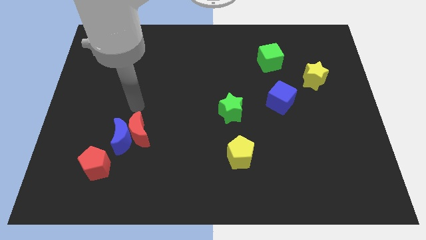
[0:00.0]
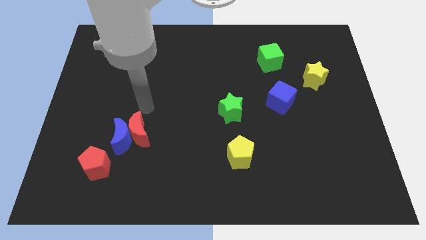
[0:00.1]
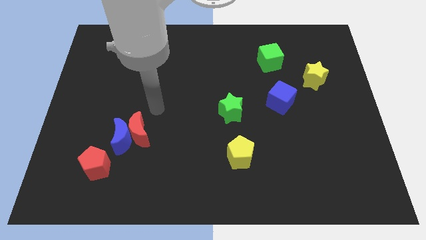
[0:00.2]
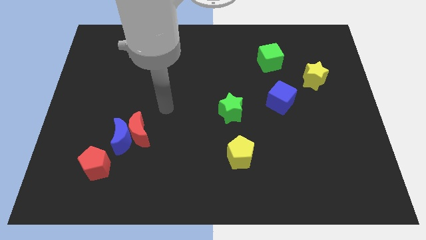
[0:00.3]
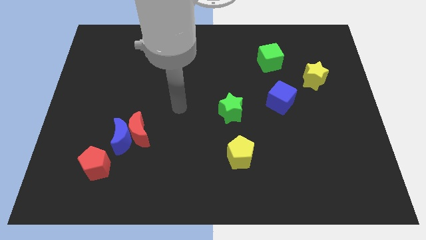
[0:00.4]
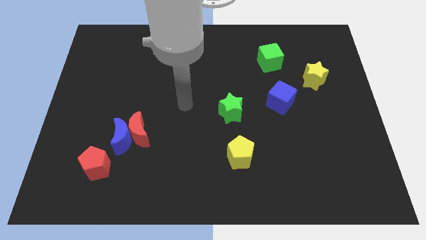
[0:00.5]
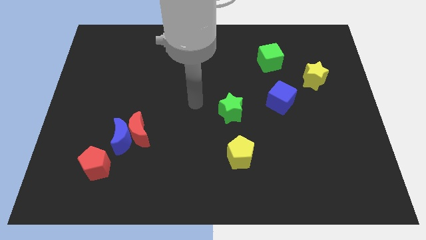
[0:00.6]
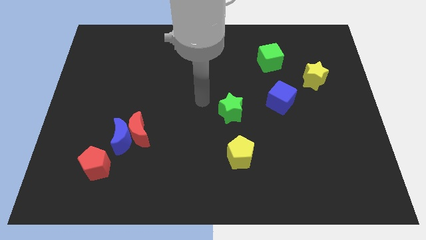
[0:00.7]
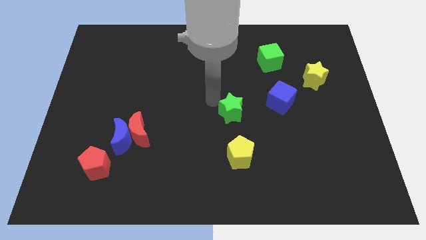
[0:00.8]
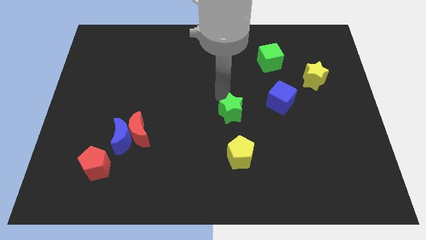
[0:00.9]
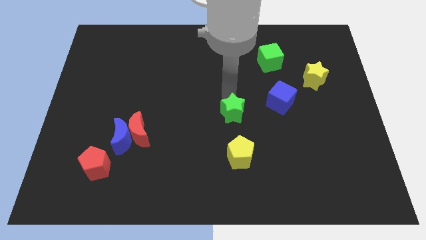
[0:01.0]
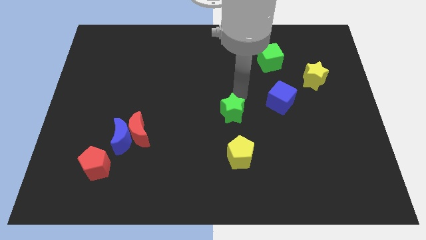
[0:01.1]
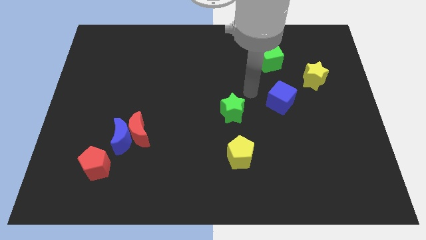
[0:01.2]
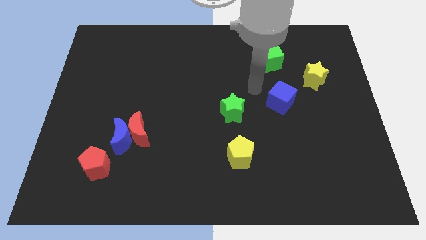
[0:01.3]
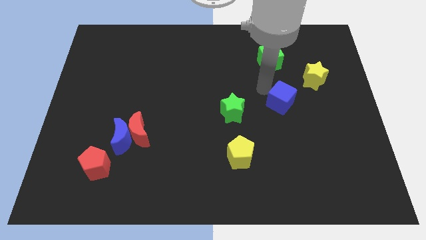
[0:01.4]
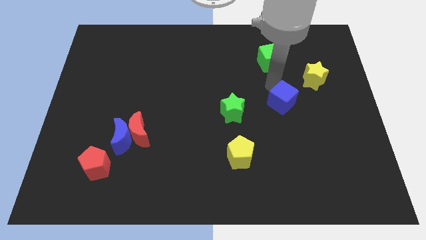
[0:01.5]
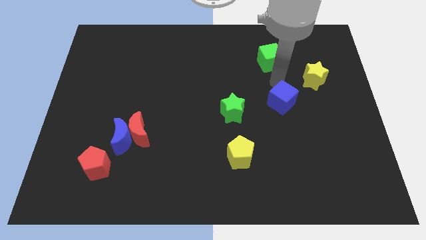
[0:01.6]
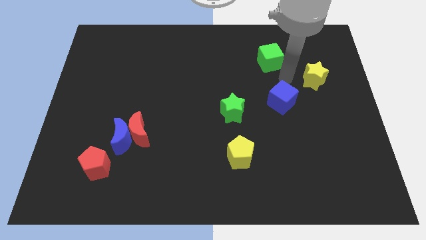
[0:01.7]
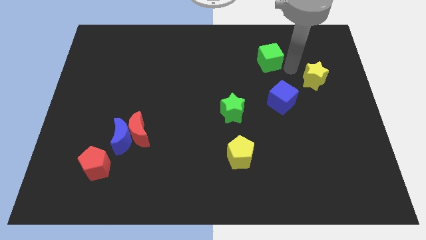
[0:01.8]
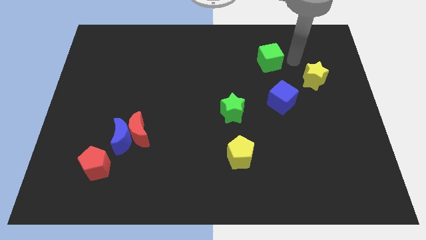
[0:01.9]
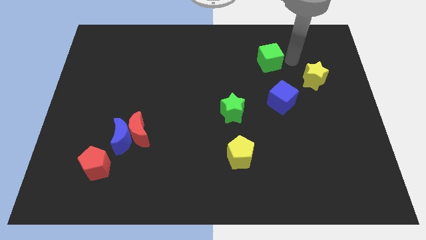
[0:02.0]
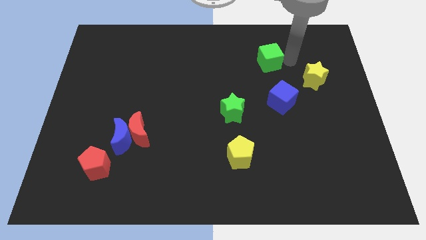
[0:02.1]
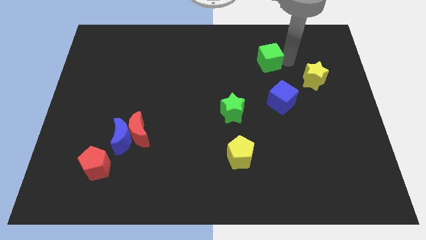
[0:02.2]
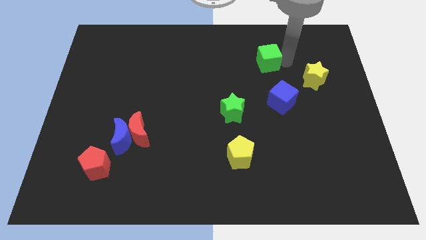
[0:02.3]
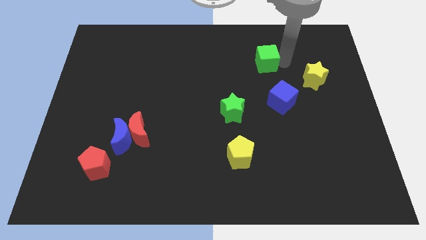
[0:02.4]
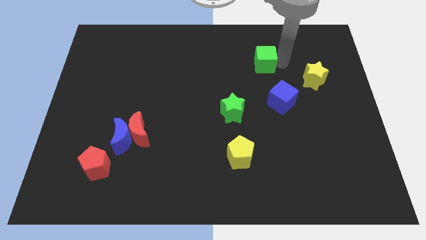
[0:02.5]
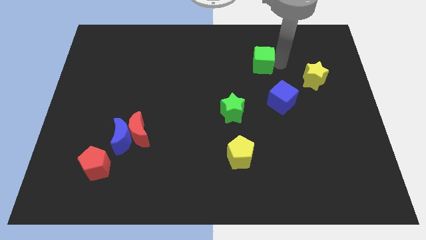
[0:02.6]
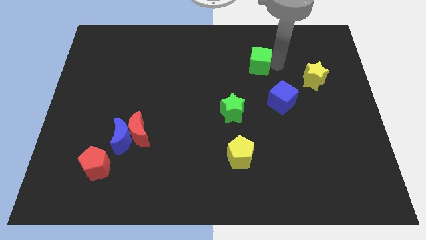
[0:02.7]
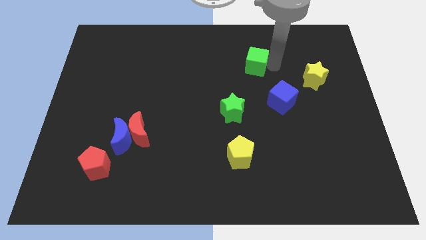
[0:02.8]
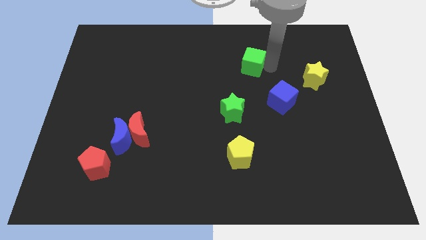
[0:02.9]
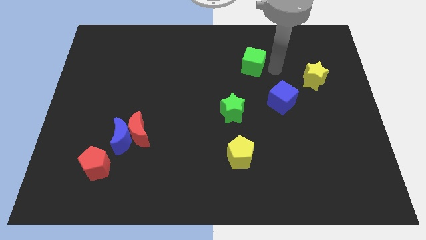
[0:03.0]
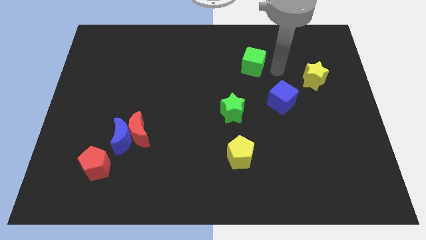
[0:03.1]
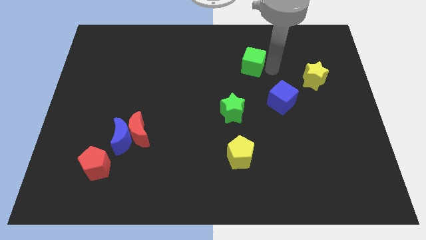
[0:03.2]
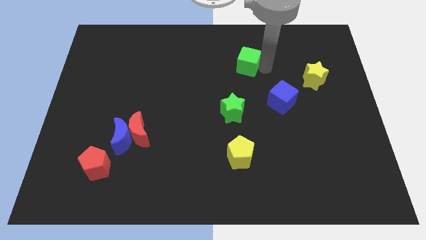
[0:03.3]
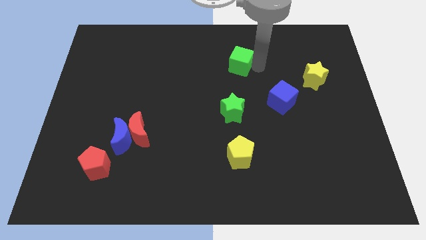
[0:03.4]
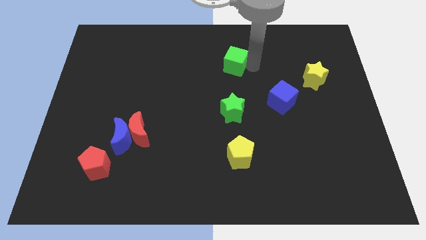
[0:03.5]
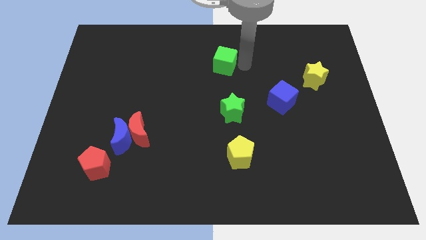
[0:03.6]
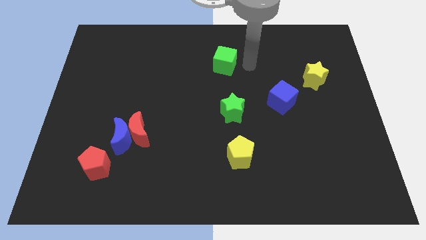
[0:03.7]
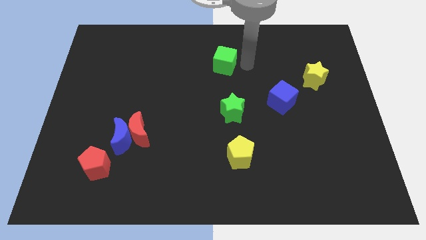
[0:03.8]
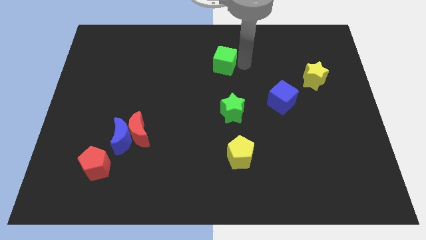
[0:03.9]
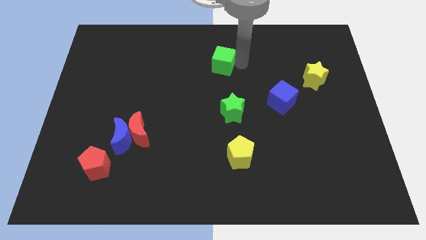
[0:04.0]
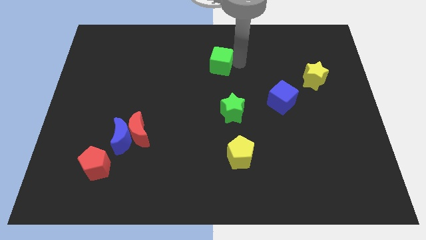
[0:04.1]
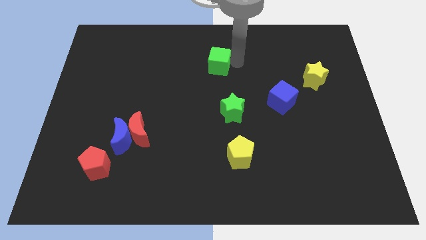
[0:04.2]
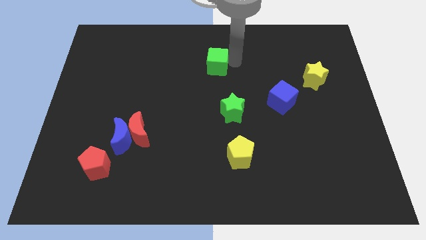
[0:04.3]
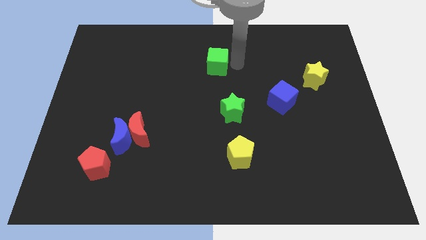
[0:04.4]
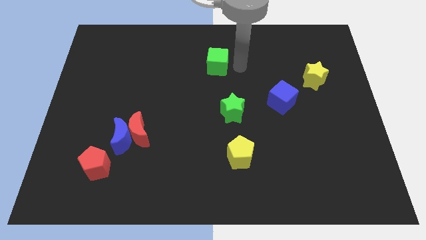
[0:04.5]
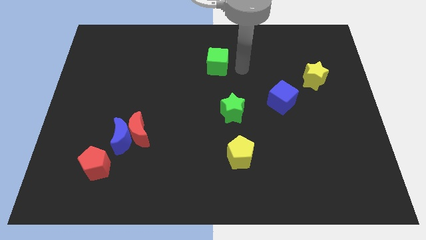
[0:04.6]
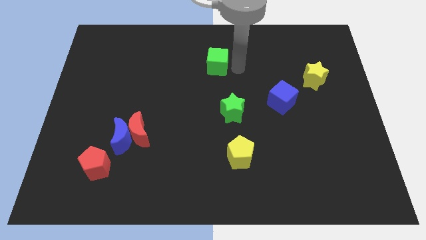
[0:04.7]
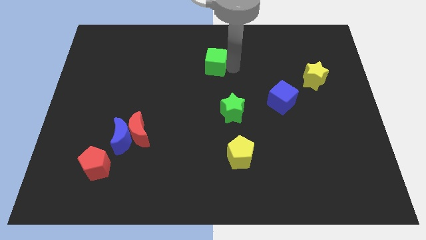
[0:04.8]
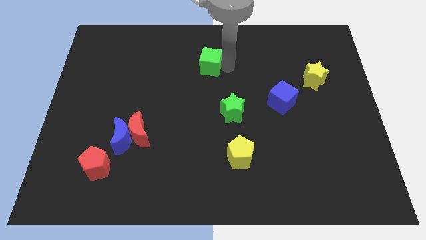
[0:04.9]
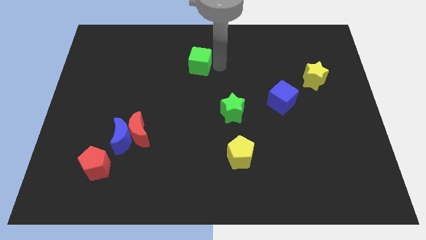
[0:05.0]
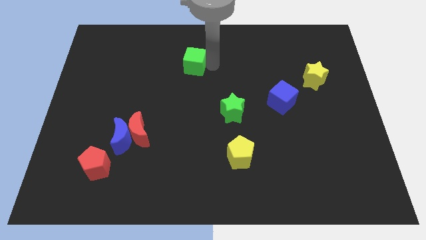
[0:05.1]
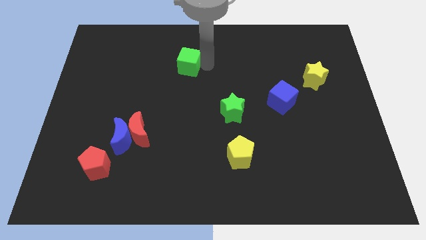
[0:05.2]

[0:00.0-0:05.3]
slide the green cube to the left

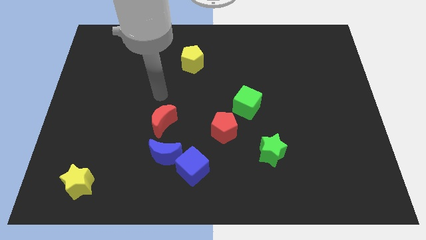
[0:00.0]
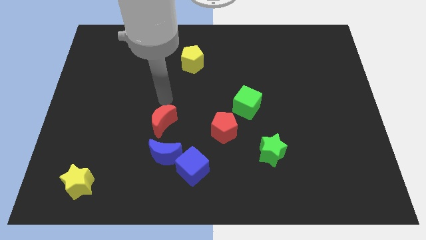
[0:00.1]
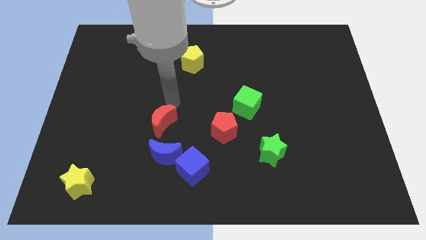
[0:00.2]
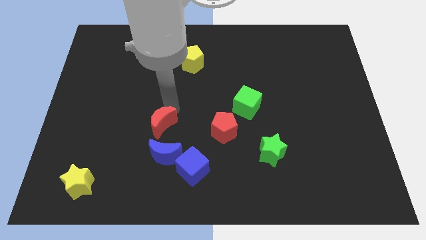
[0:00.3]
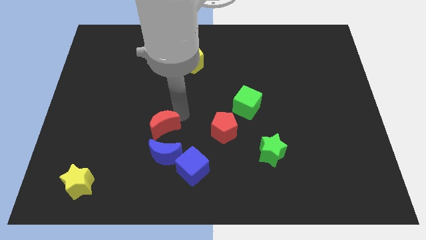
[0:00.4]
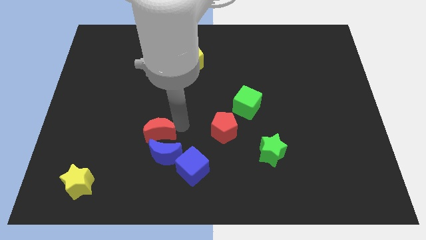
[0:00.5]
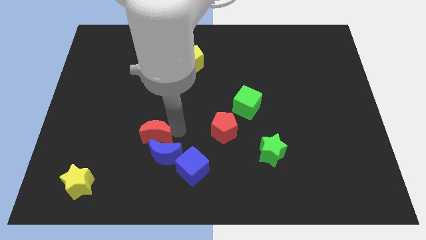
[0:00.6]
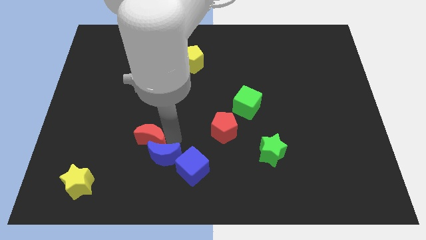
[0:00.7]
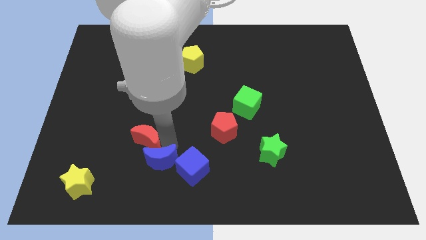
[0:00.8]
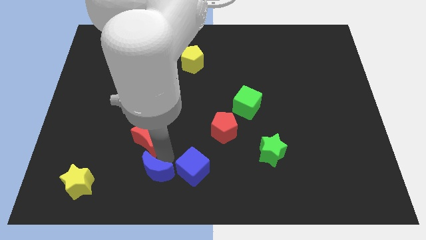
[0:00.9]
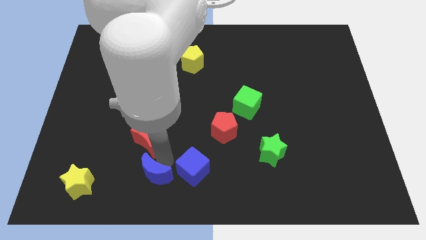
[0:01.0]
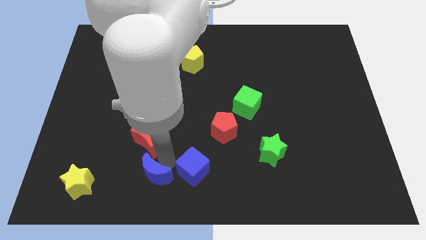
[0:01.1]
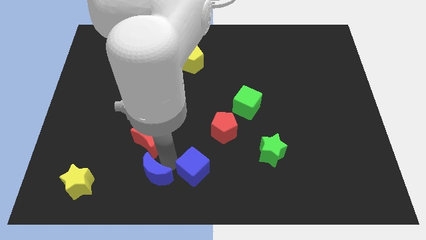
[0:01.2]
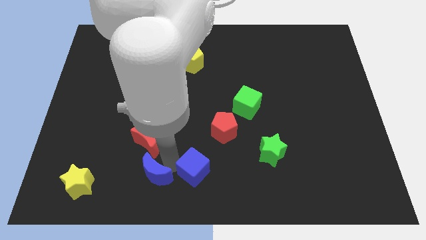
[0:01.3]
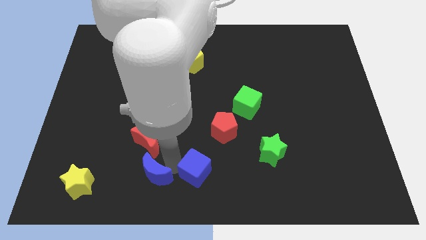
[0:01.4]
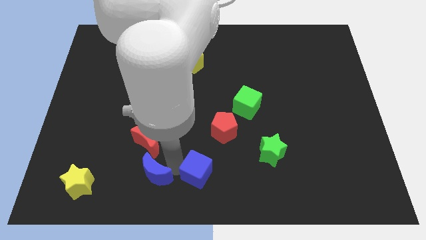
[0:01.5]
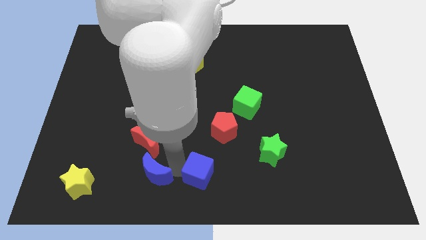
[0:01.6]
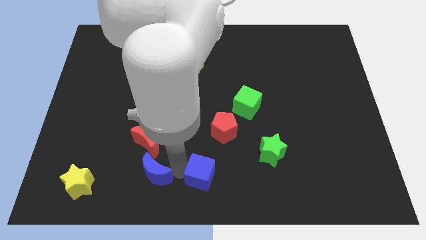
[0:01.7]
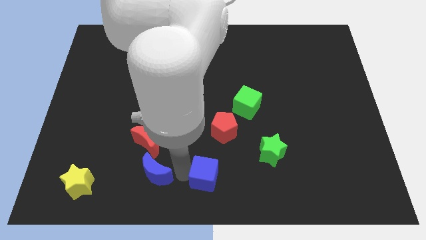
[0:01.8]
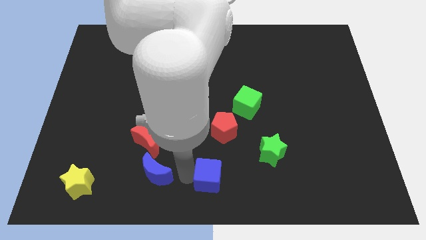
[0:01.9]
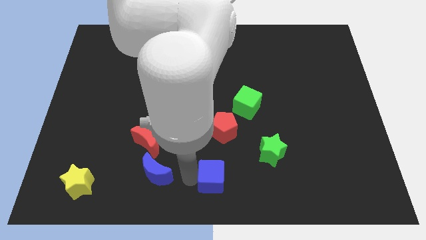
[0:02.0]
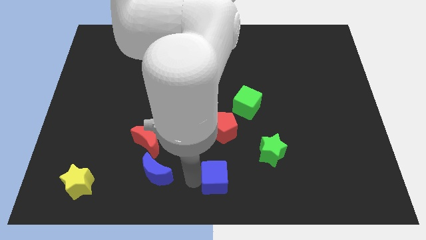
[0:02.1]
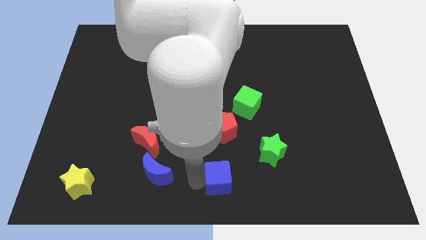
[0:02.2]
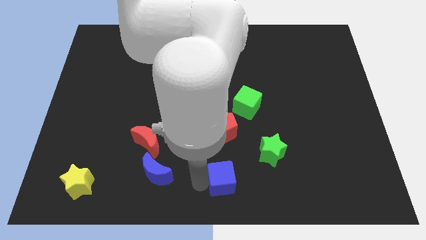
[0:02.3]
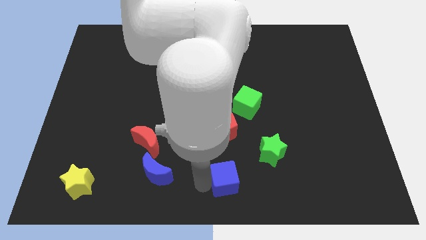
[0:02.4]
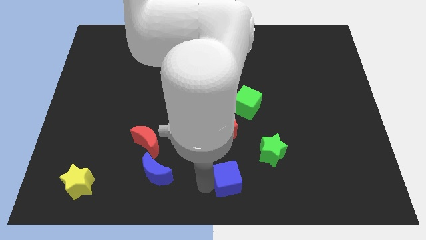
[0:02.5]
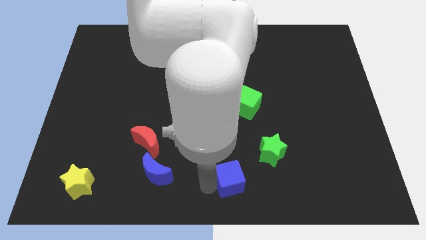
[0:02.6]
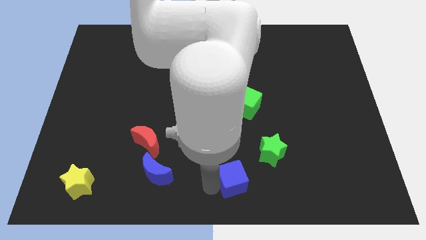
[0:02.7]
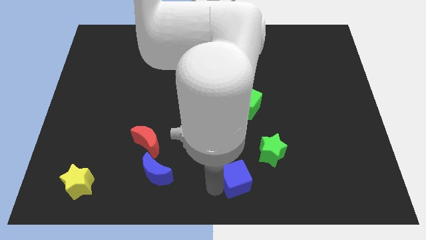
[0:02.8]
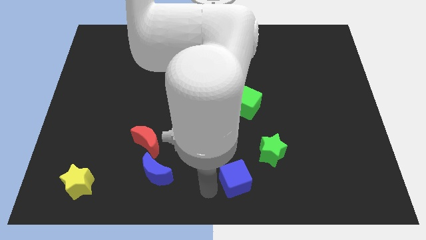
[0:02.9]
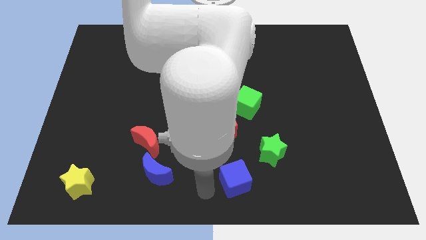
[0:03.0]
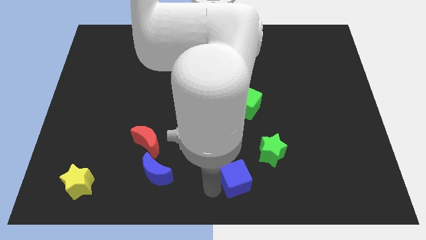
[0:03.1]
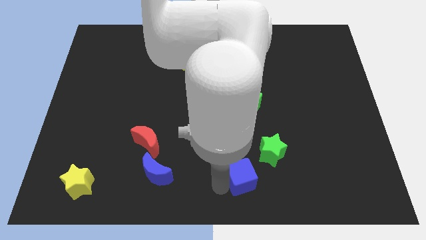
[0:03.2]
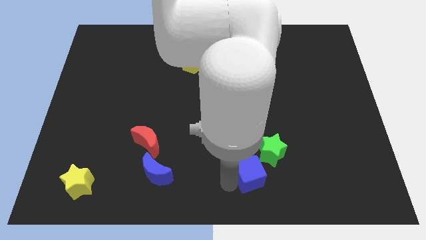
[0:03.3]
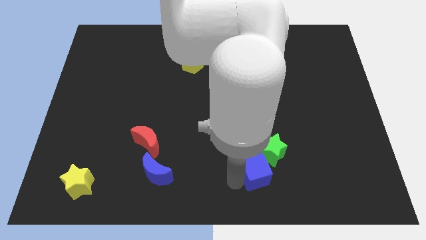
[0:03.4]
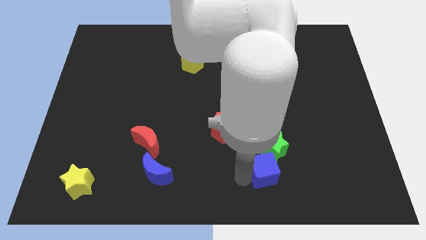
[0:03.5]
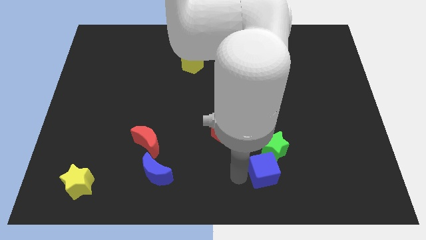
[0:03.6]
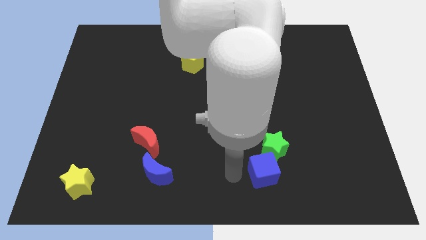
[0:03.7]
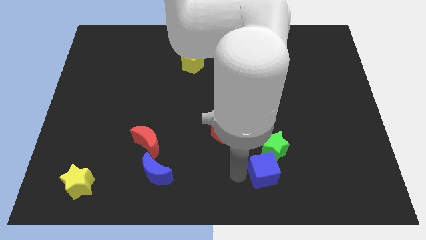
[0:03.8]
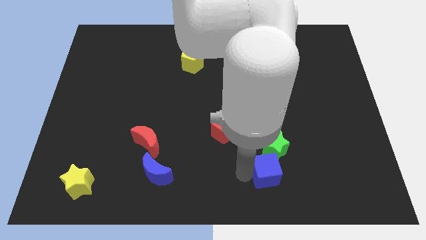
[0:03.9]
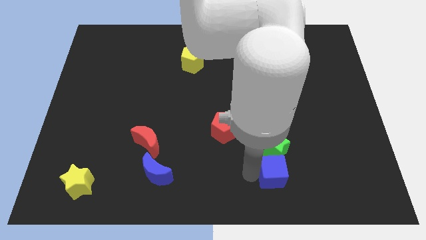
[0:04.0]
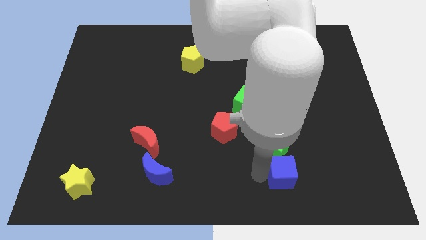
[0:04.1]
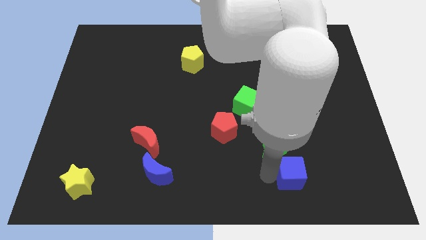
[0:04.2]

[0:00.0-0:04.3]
slide the blue cube to the right
